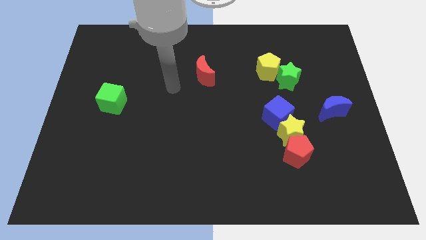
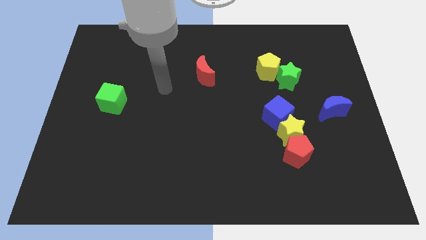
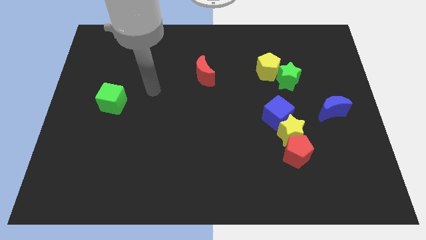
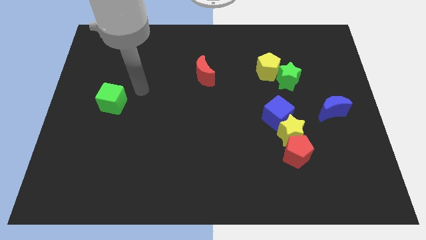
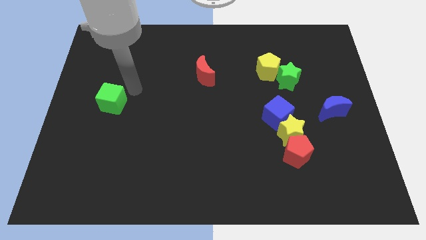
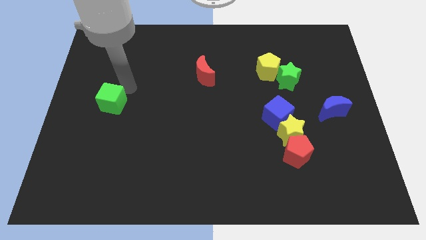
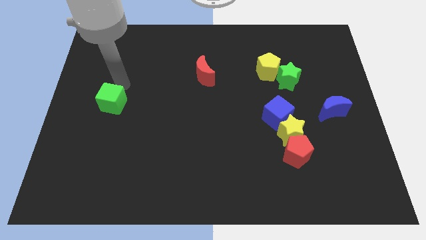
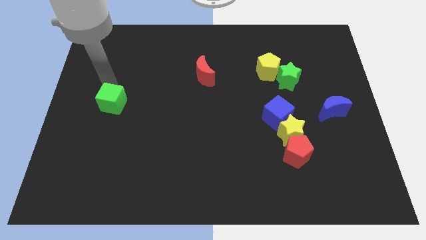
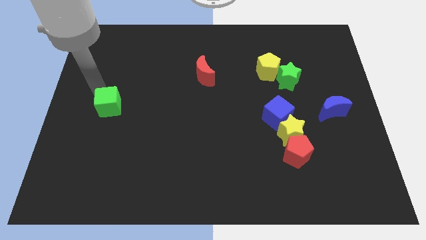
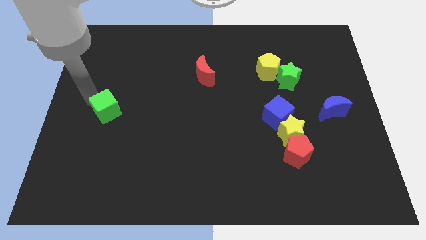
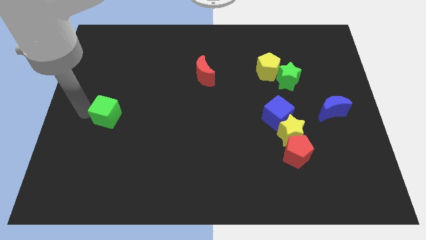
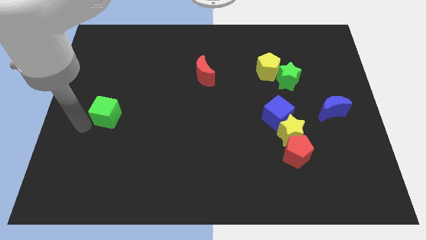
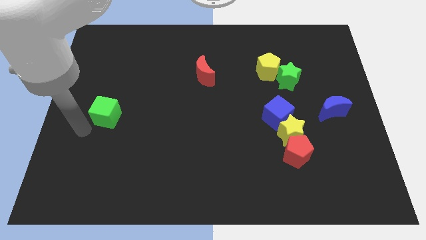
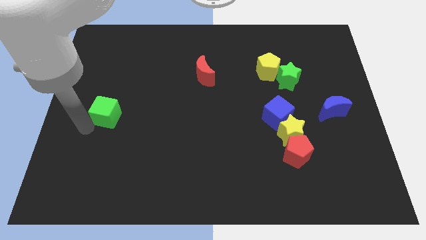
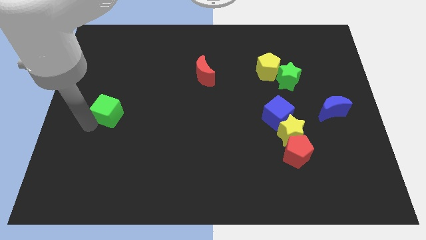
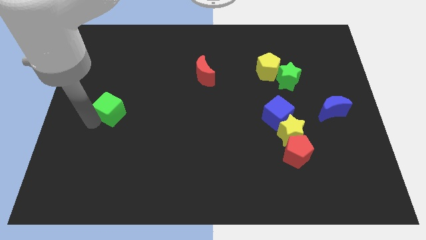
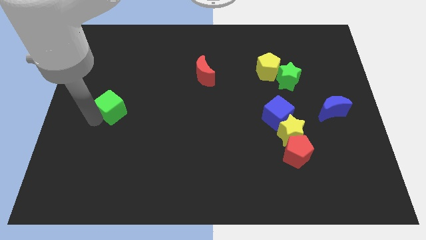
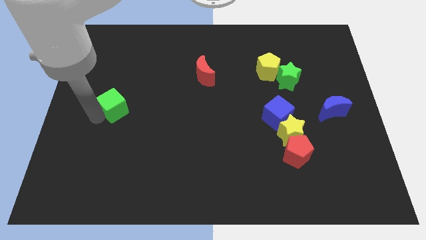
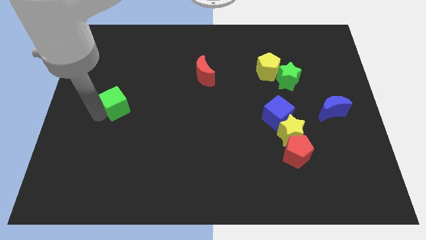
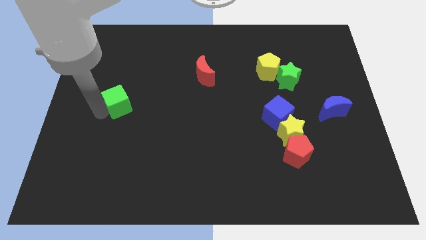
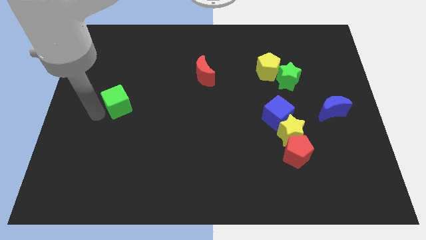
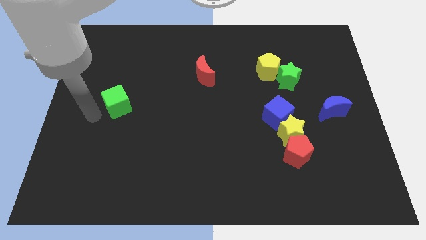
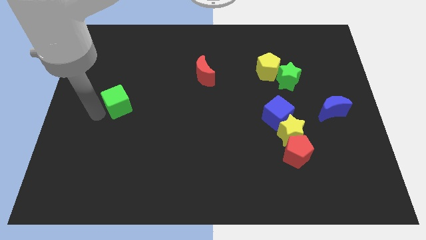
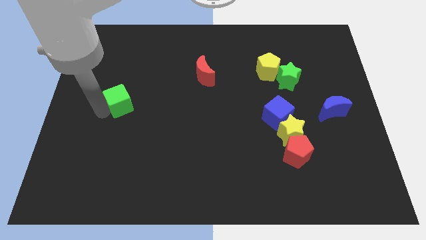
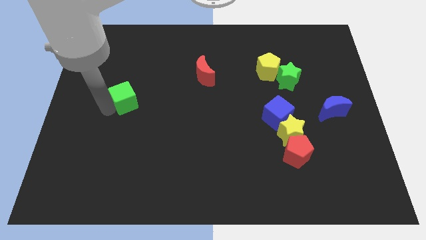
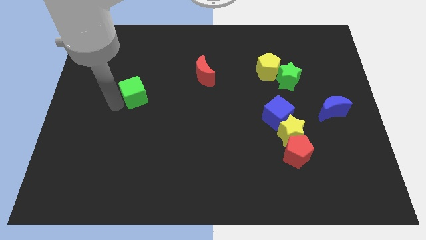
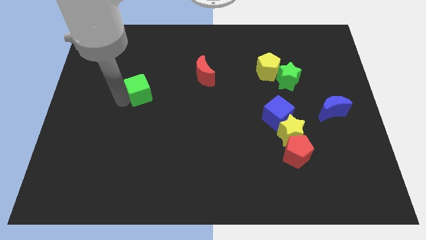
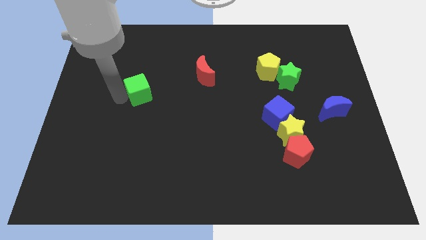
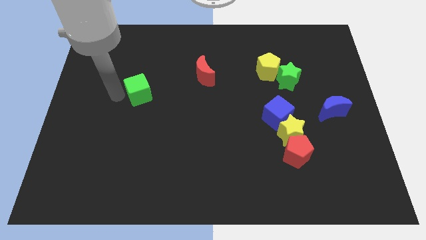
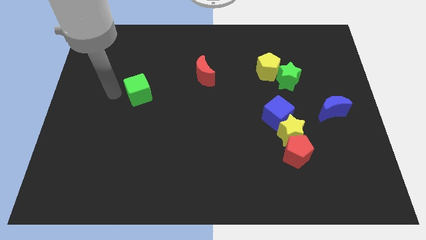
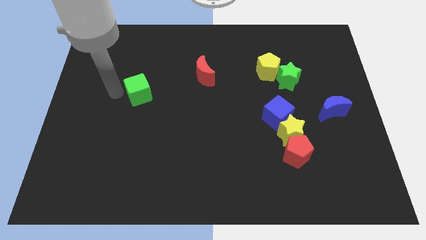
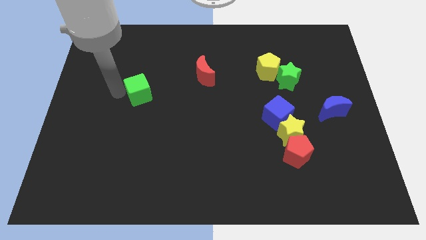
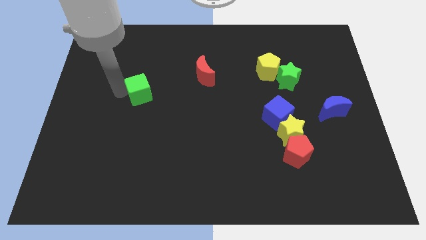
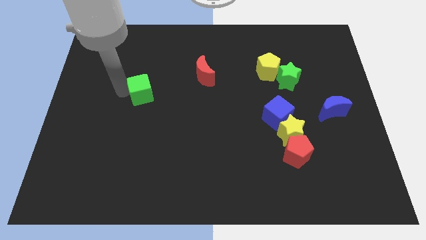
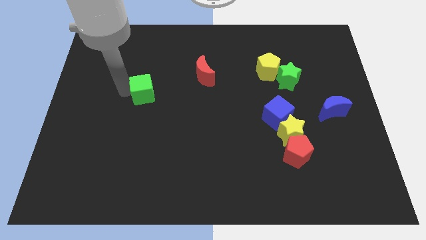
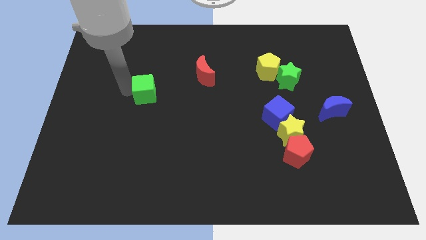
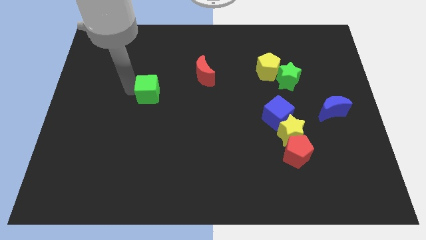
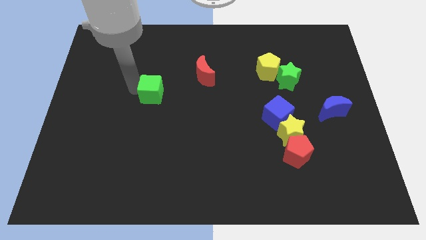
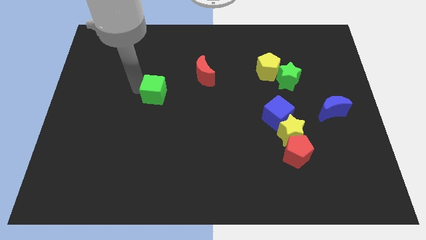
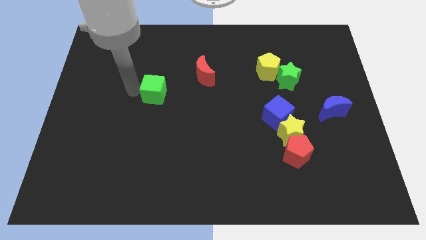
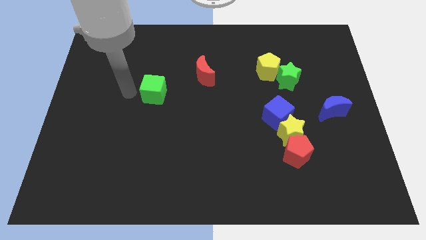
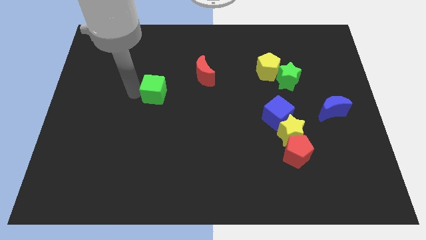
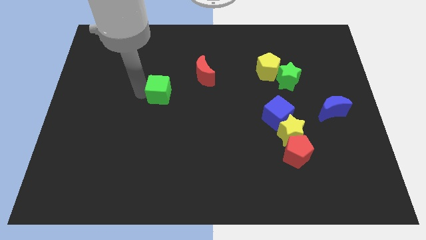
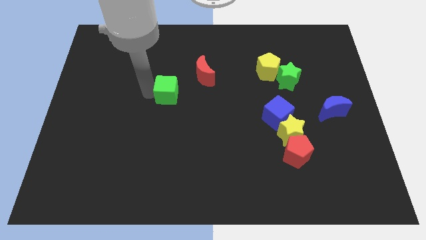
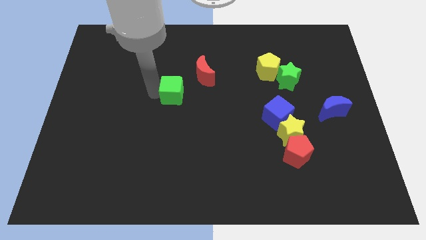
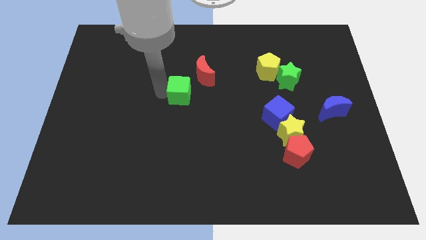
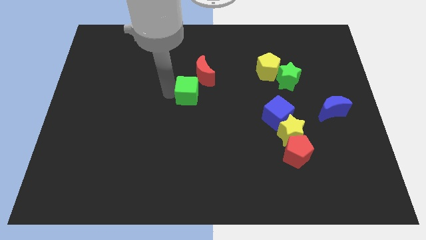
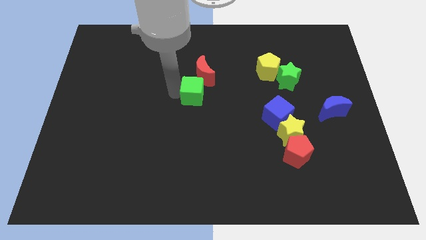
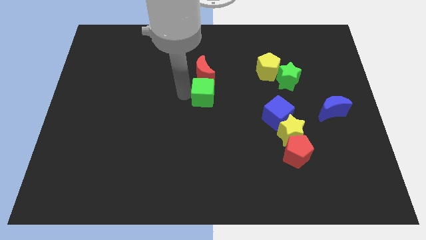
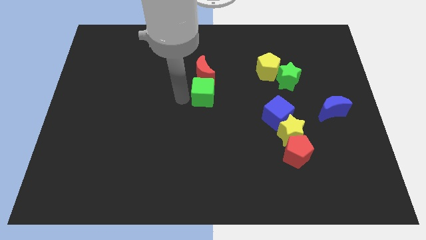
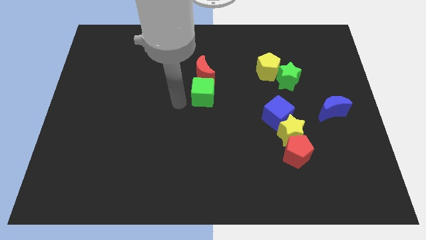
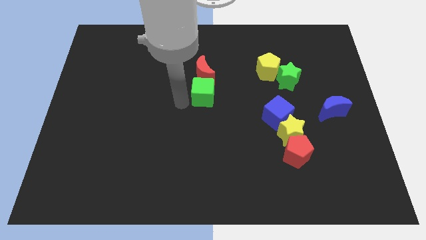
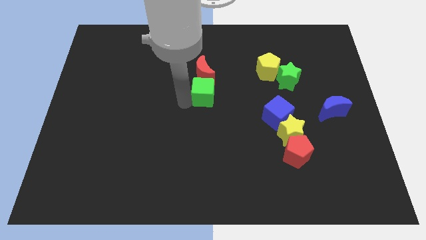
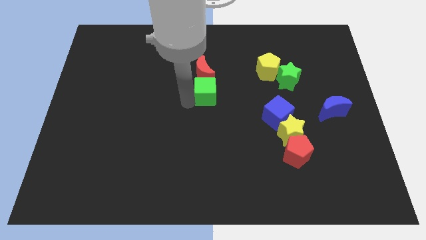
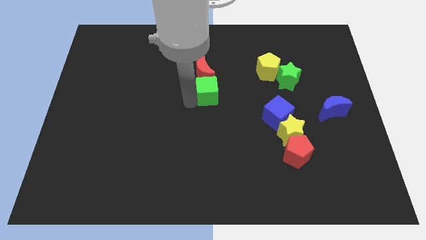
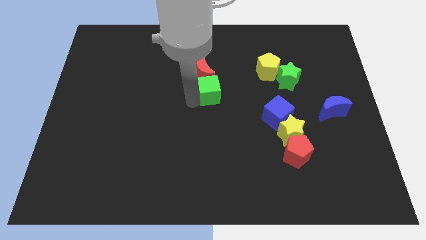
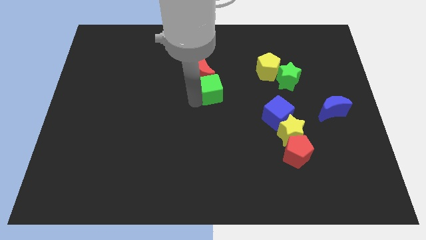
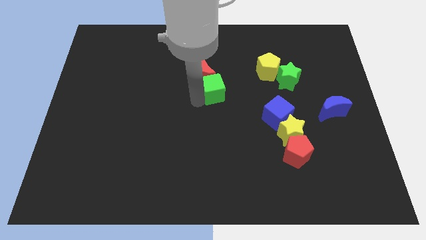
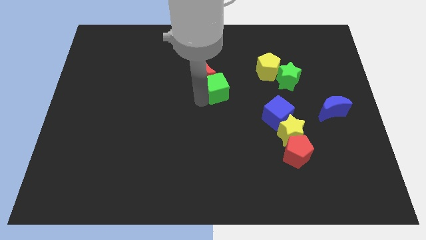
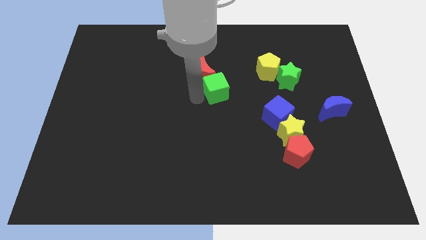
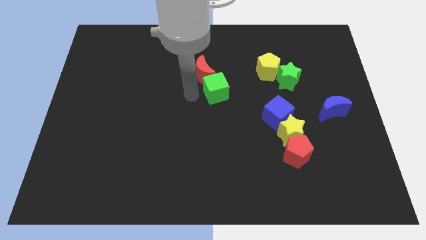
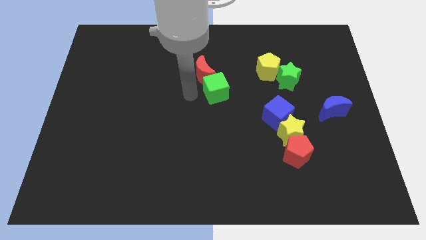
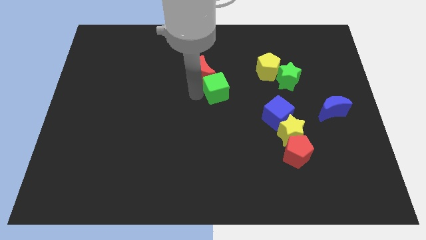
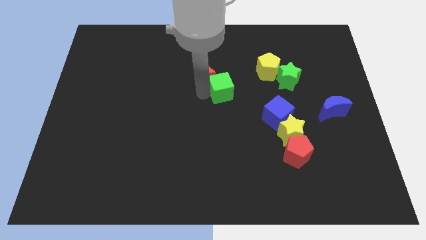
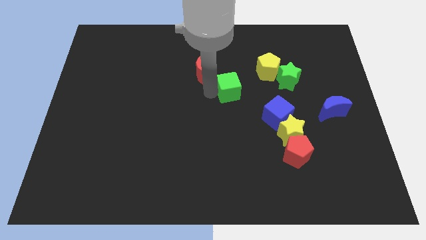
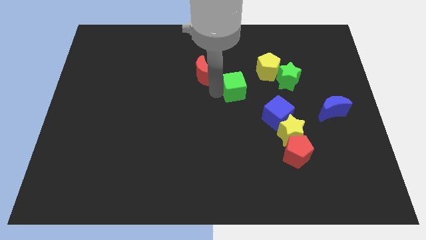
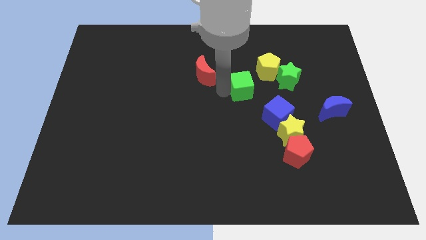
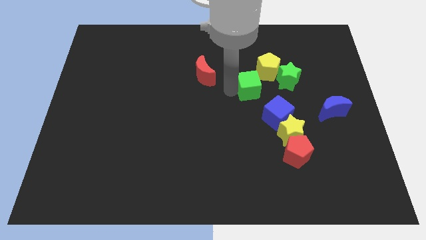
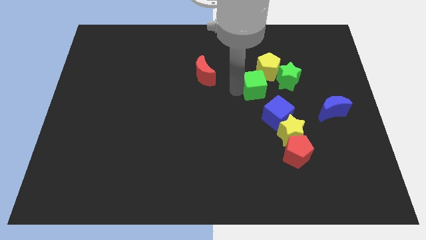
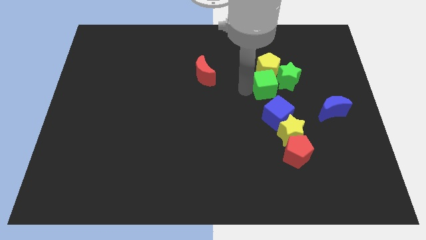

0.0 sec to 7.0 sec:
slide the green cube close to the green star

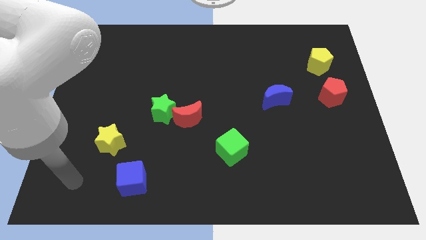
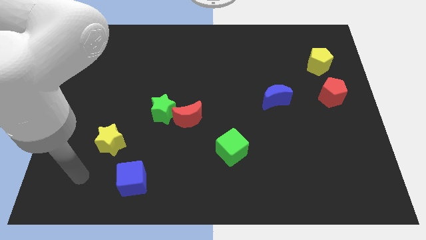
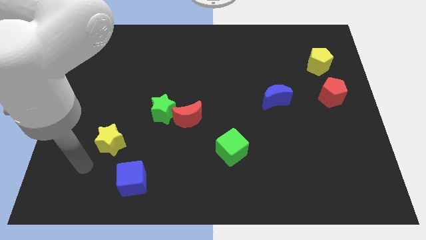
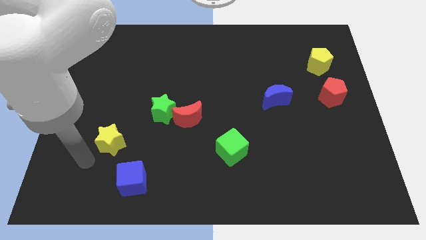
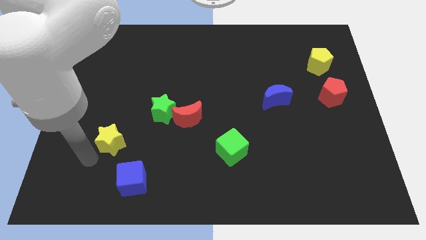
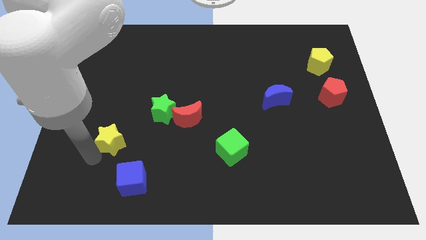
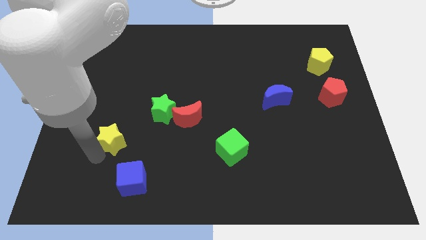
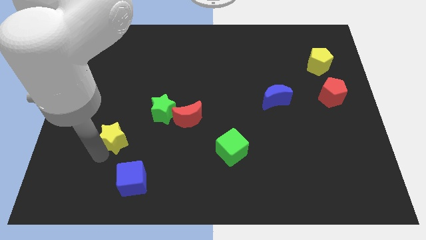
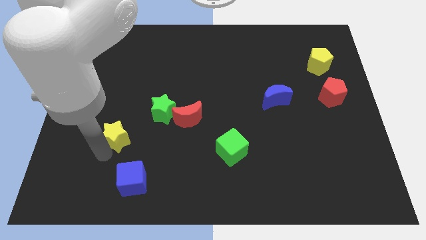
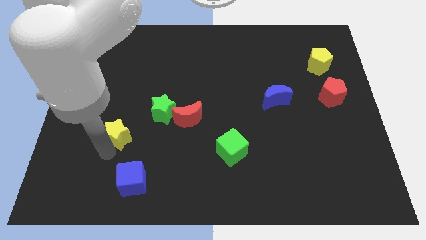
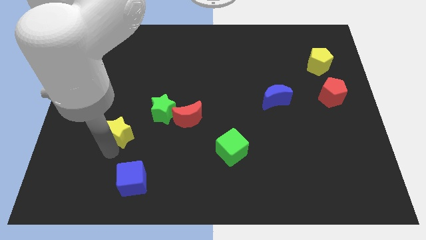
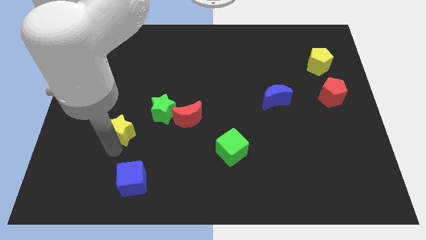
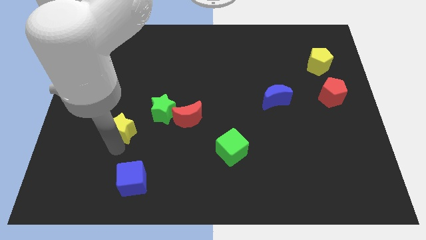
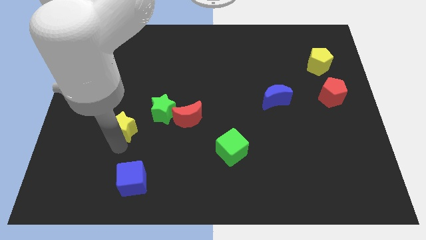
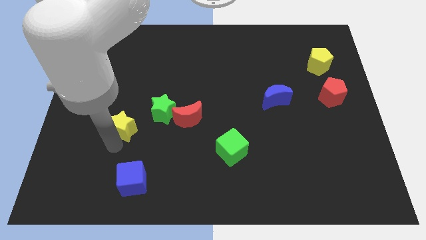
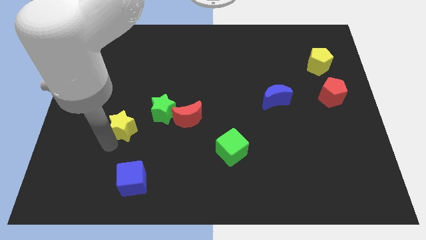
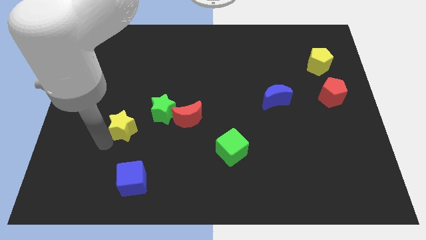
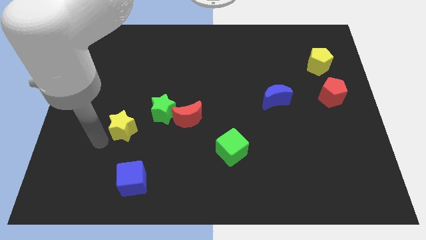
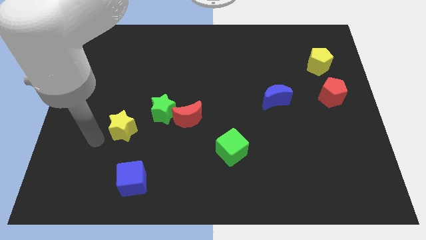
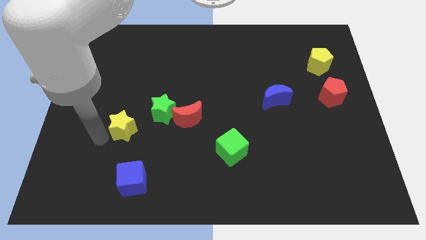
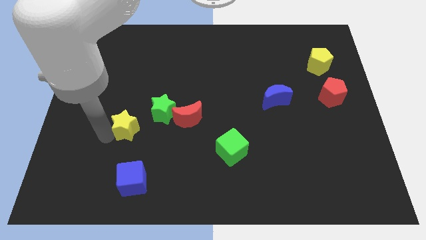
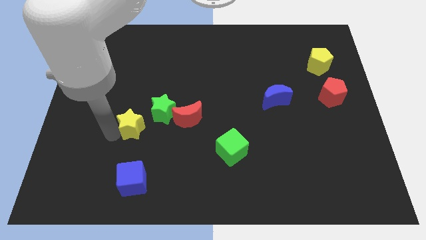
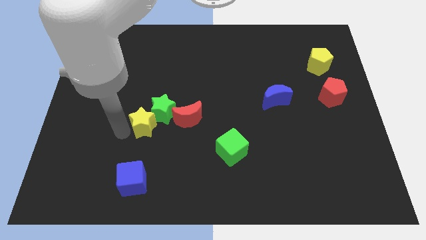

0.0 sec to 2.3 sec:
slide the yellow star close to the green star
